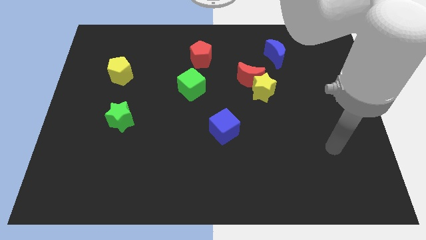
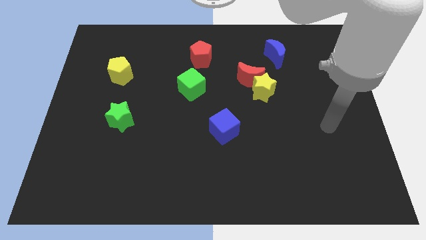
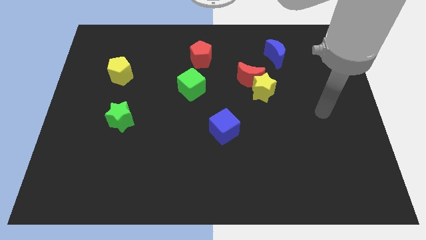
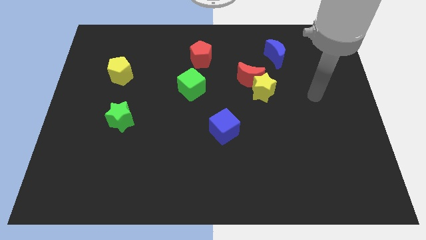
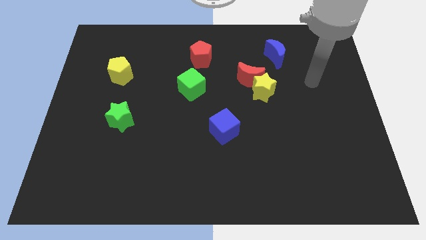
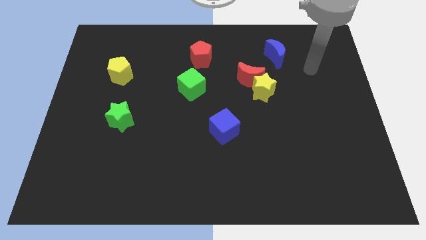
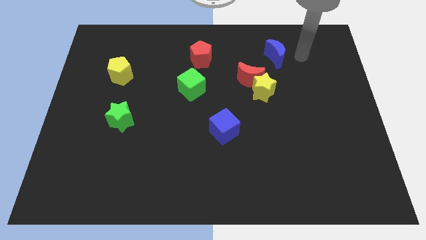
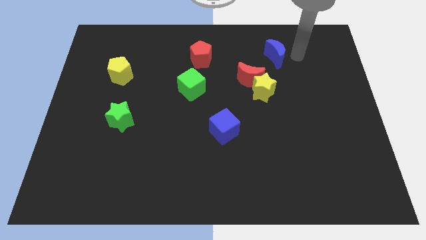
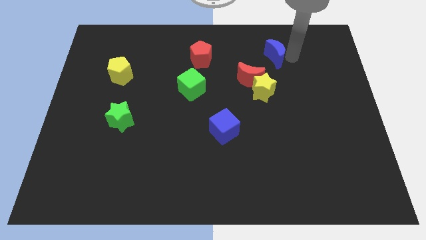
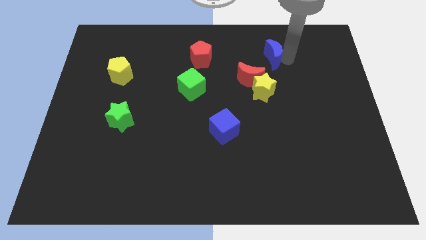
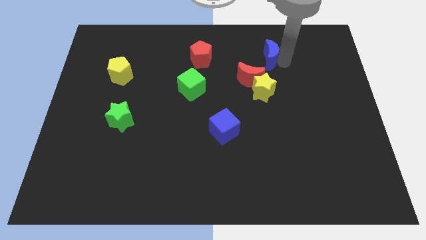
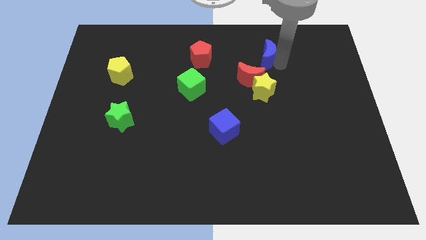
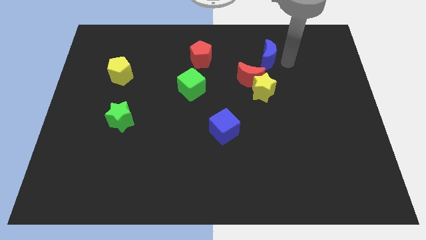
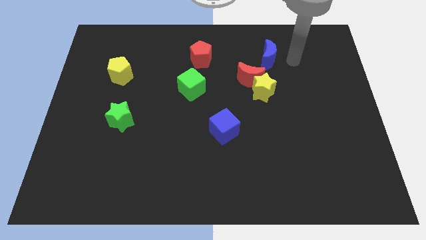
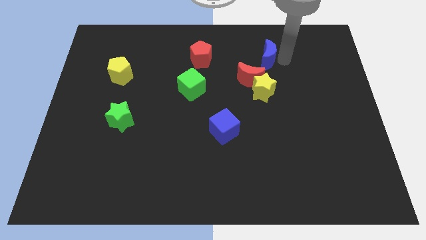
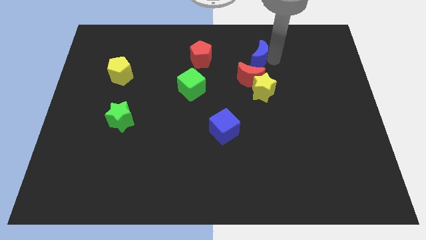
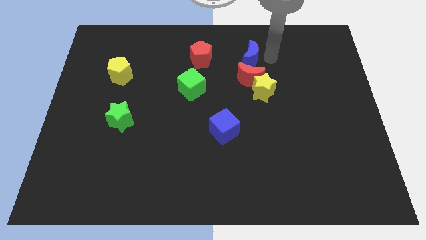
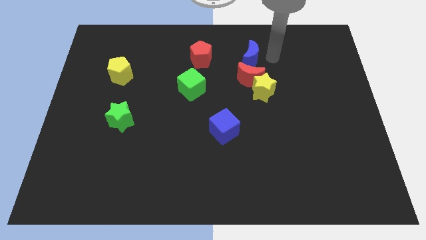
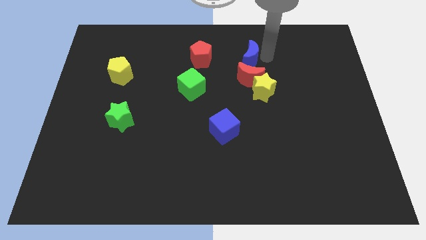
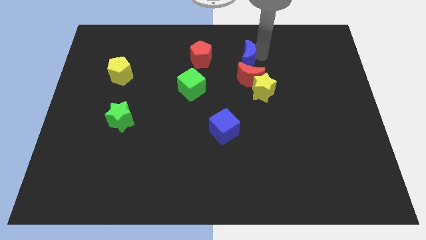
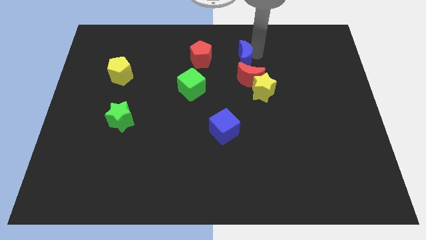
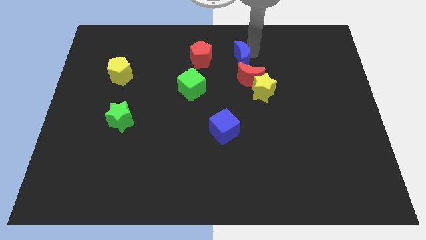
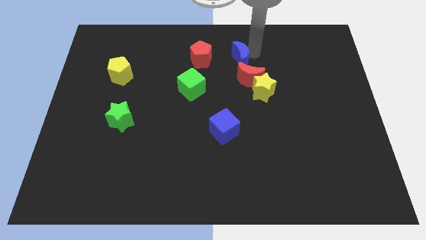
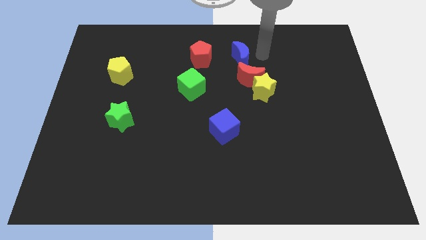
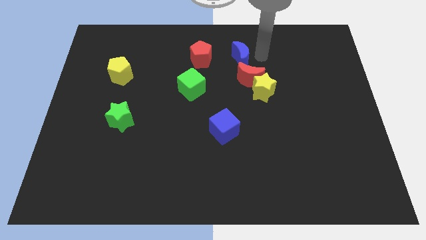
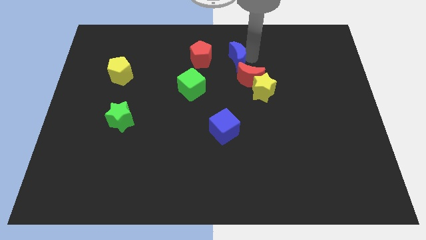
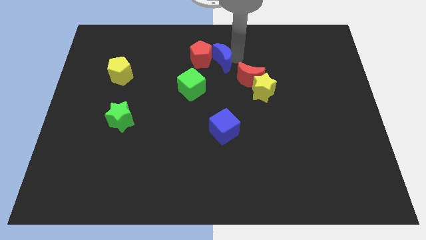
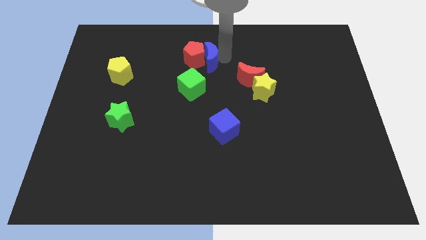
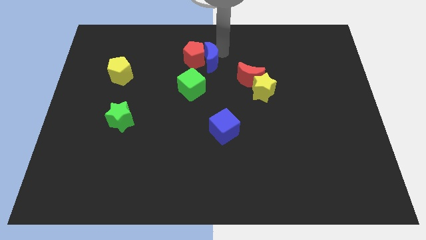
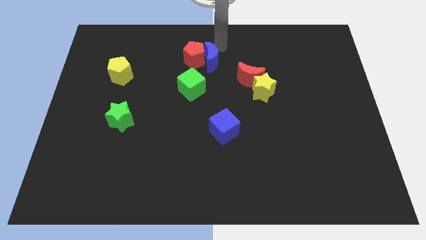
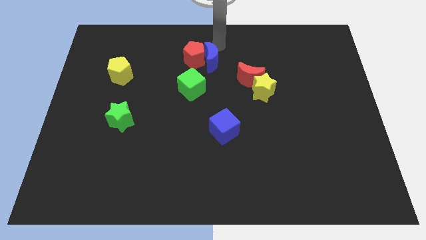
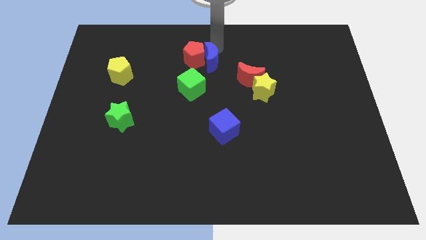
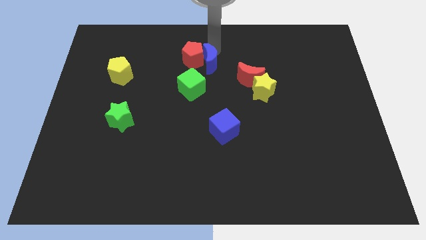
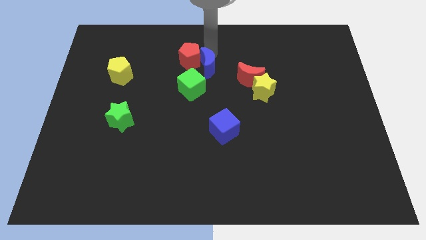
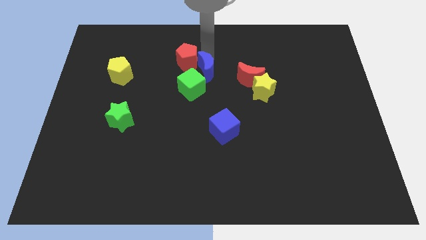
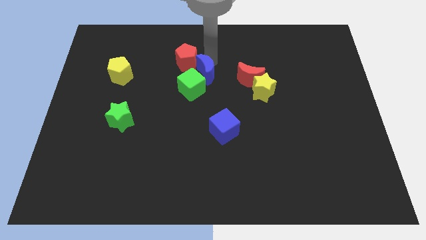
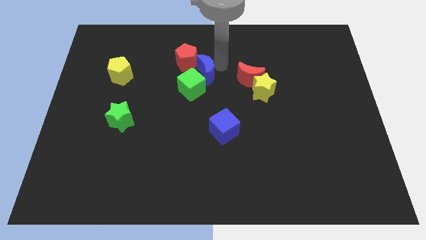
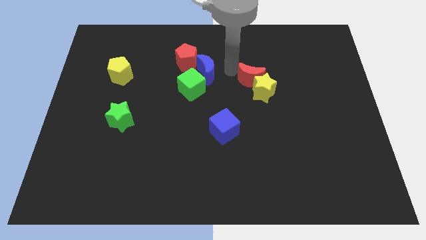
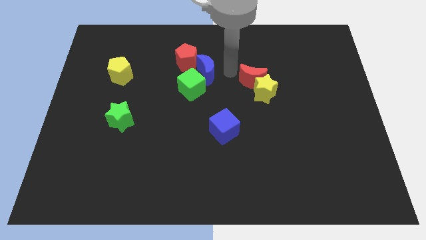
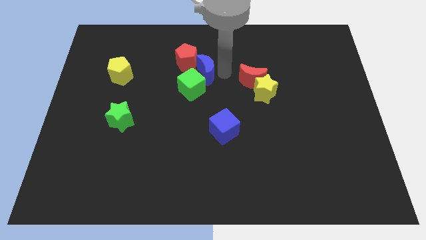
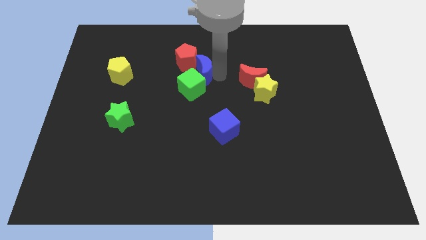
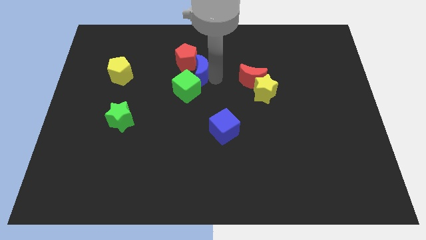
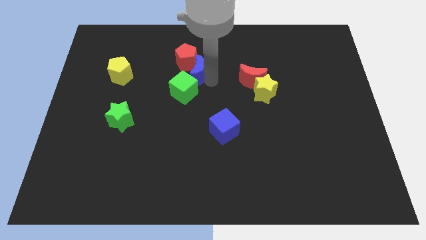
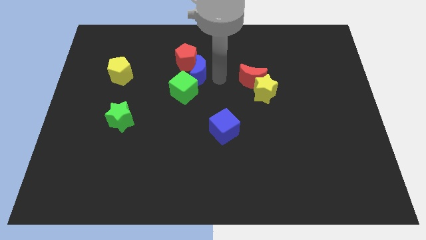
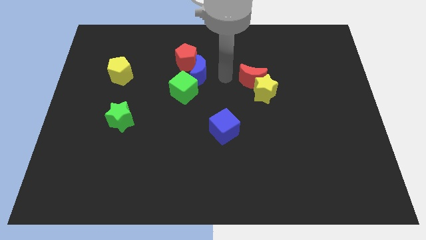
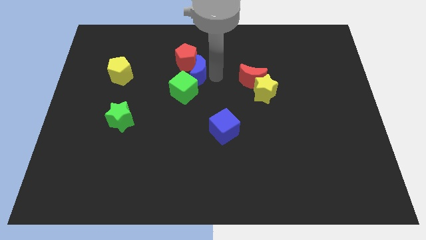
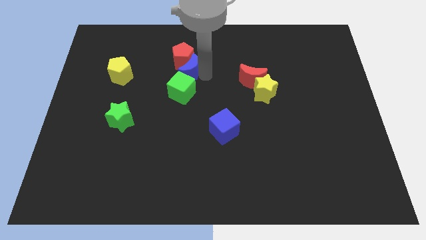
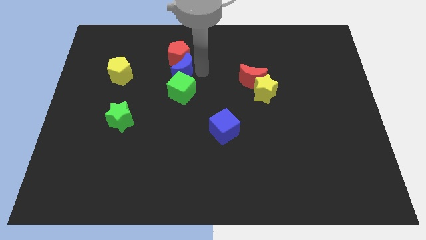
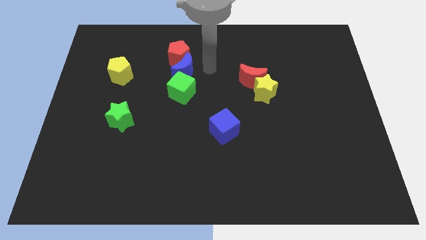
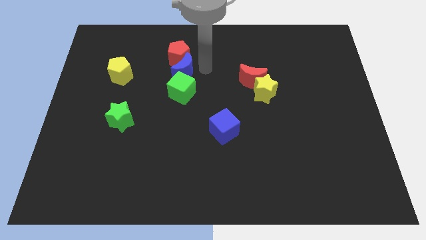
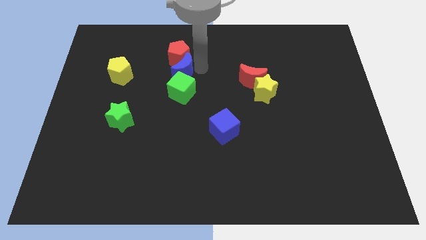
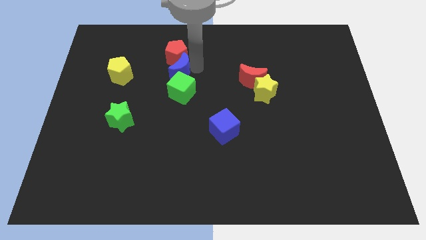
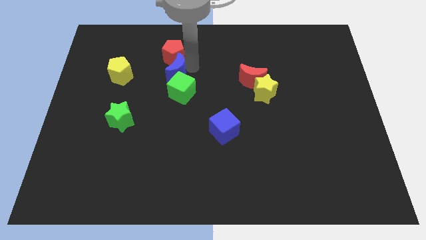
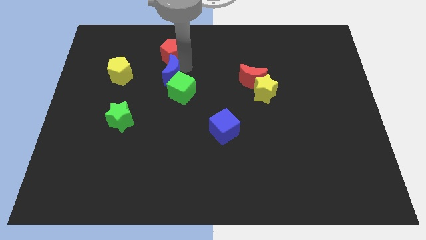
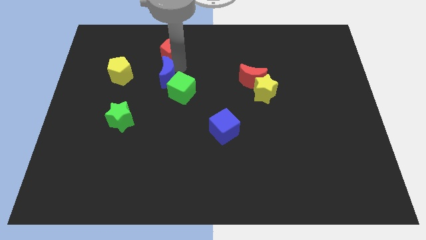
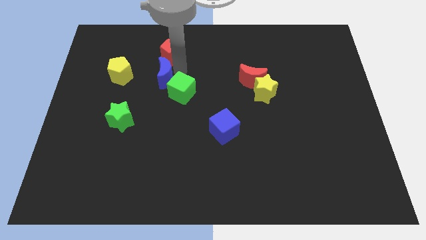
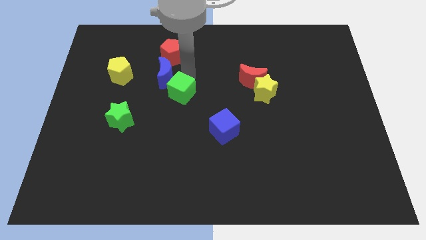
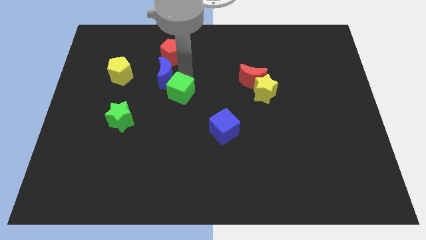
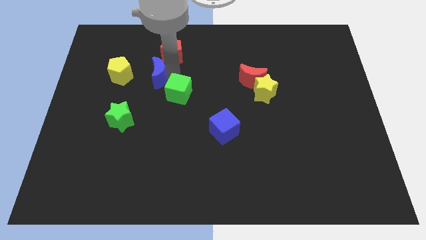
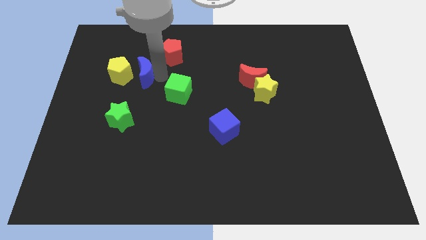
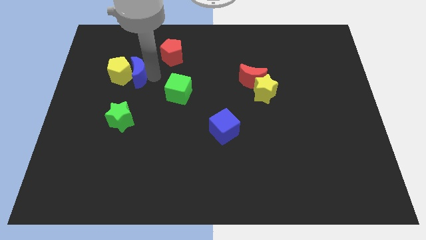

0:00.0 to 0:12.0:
put the blue moon towards the yellow pentagon

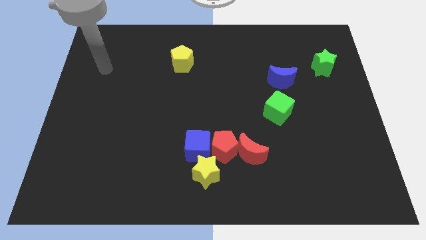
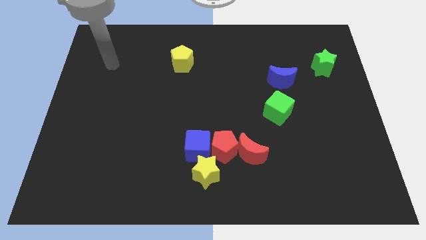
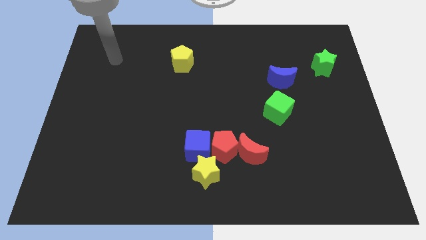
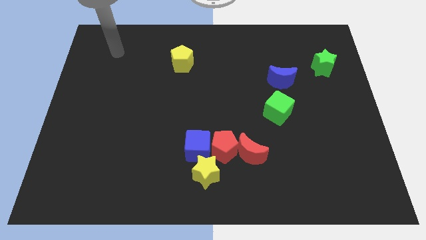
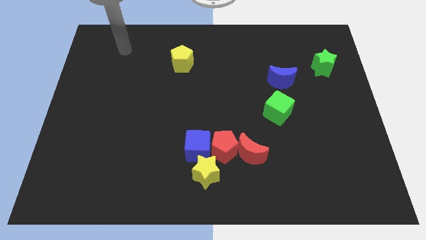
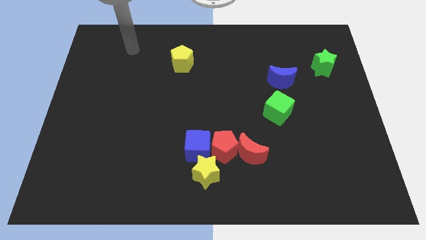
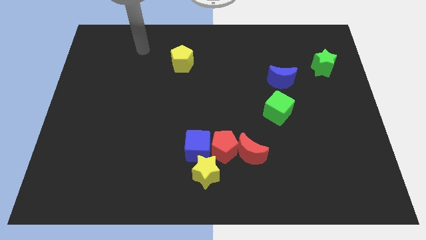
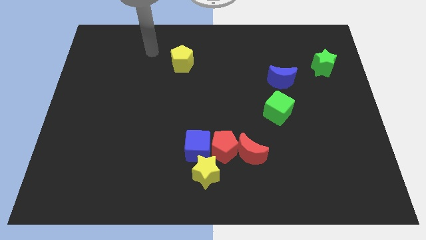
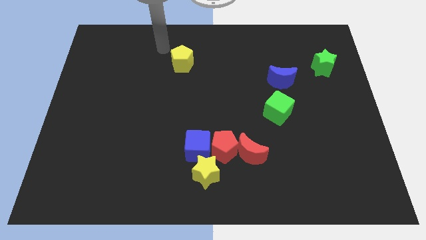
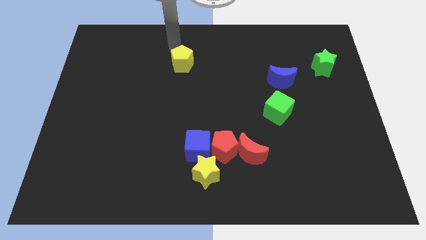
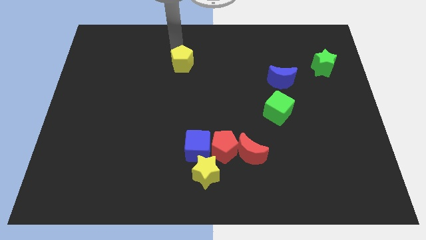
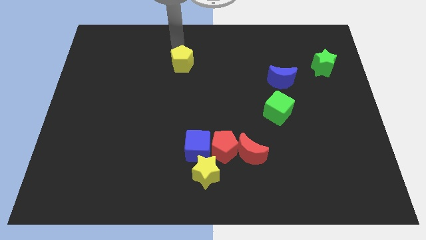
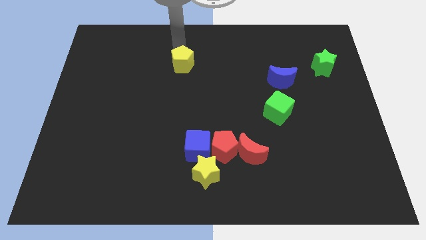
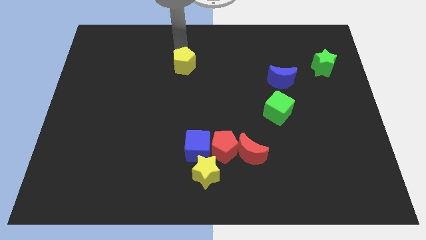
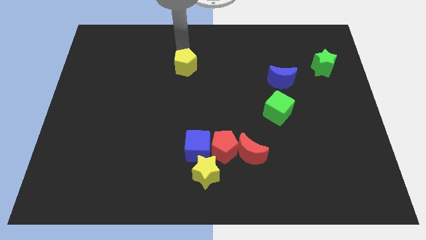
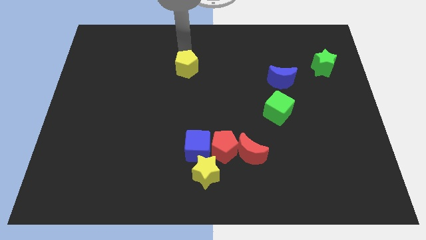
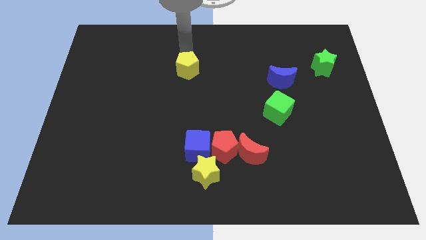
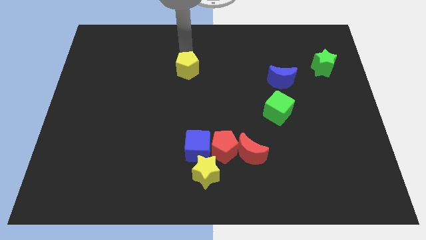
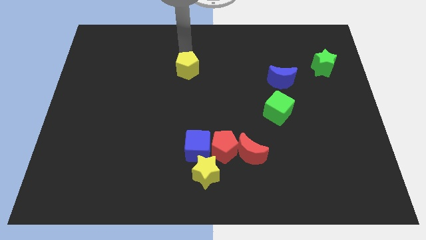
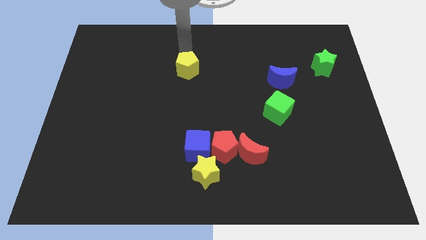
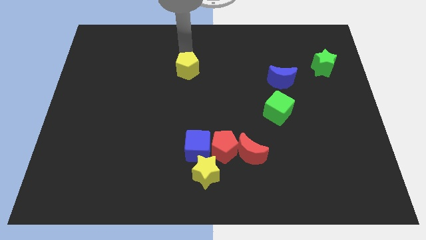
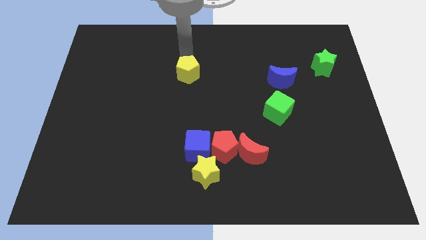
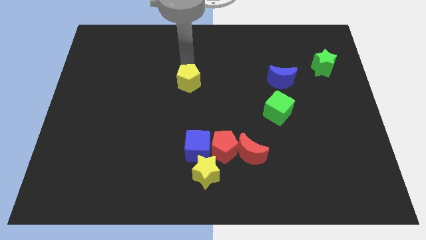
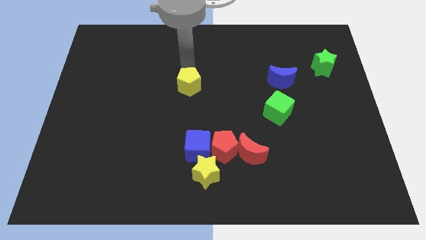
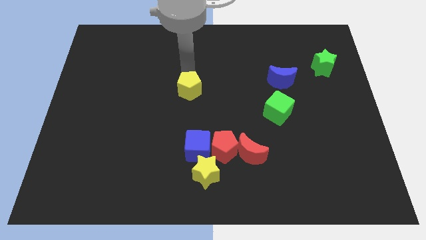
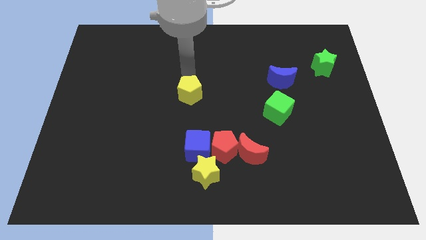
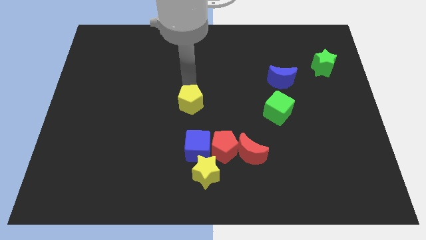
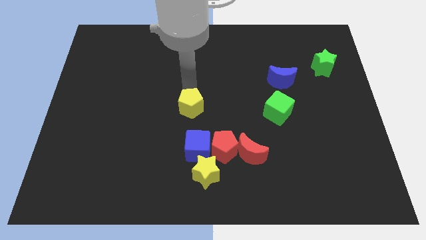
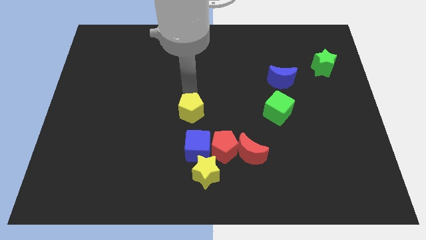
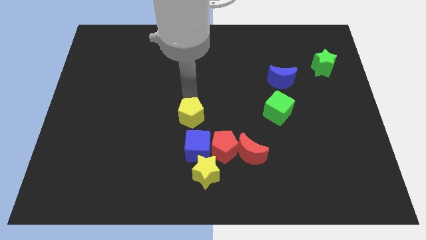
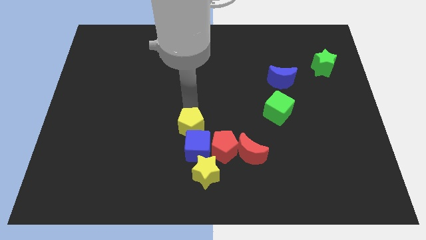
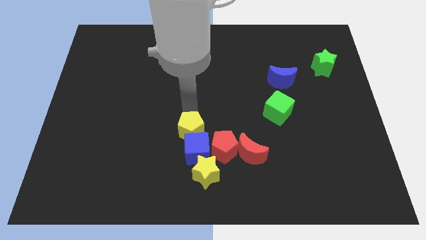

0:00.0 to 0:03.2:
slide the yellow pentagon towards the blue cube
